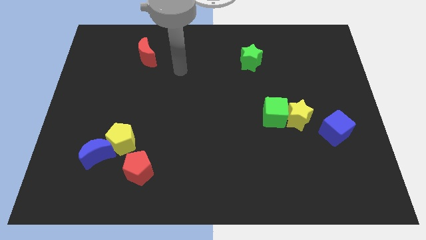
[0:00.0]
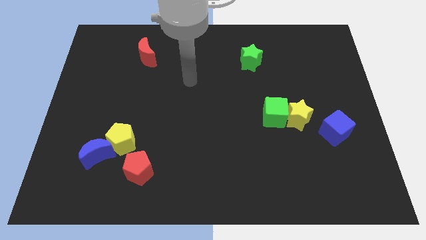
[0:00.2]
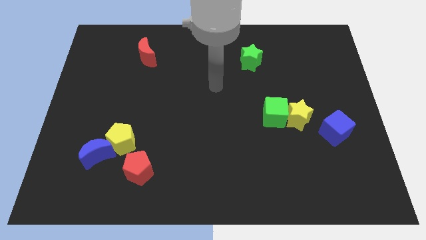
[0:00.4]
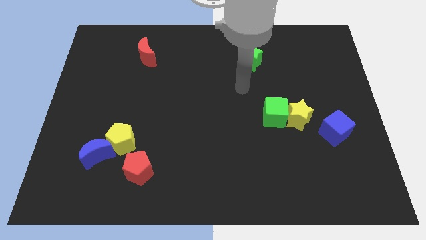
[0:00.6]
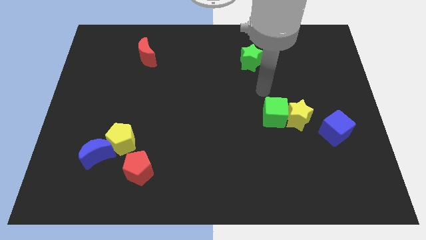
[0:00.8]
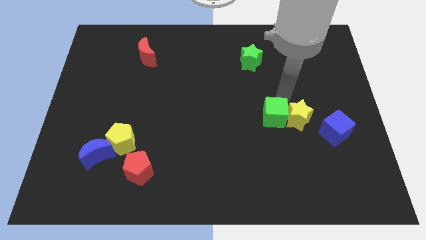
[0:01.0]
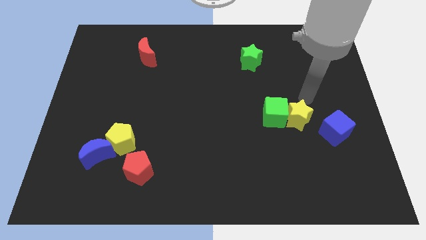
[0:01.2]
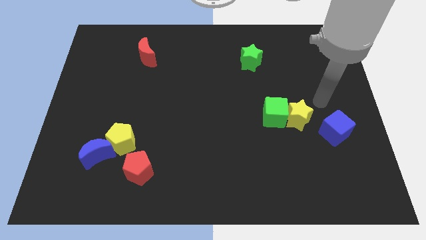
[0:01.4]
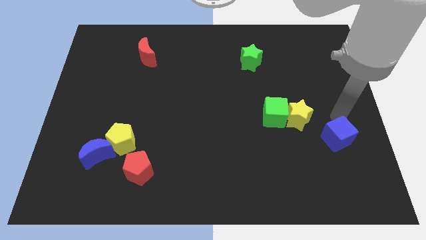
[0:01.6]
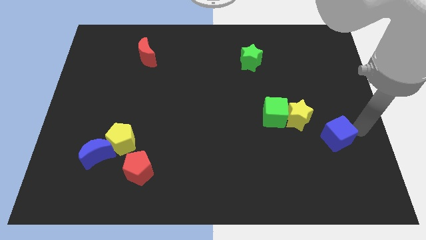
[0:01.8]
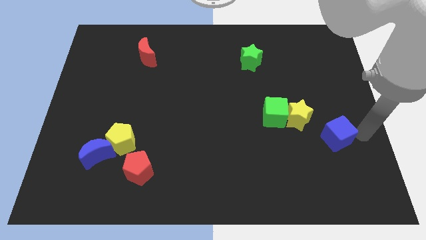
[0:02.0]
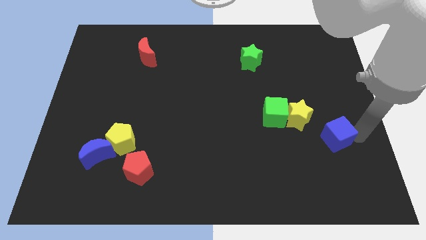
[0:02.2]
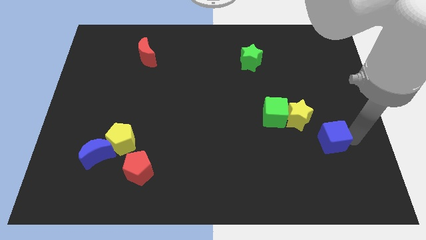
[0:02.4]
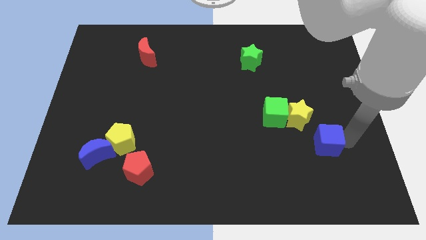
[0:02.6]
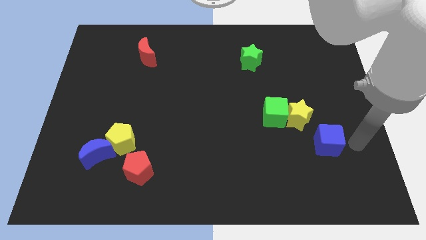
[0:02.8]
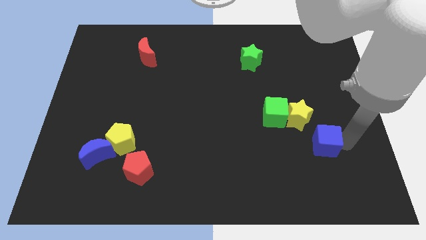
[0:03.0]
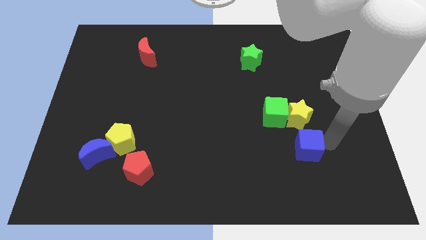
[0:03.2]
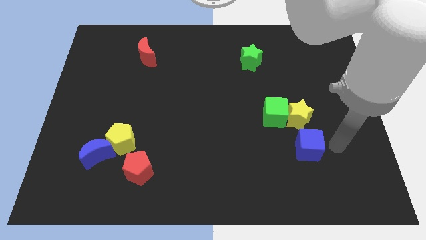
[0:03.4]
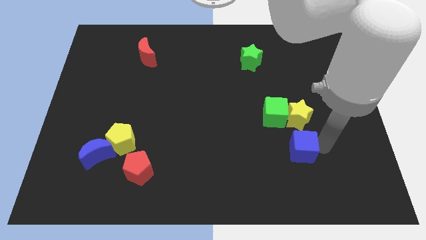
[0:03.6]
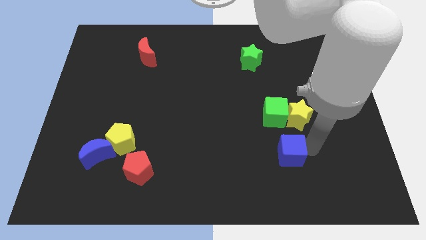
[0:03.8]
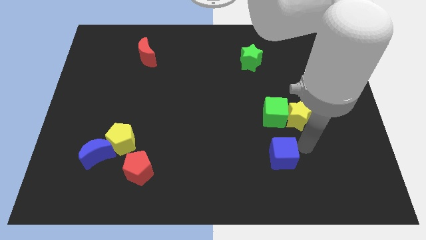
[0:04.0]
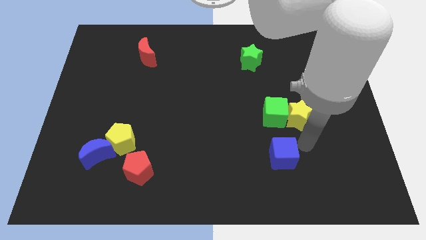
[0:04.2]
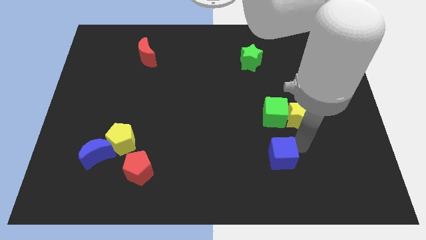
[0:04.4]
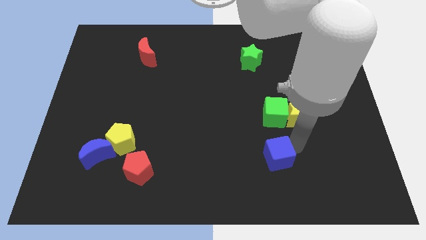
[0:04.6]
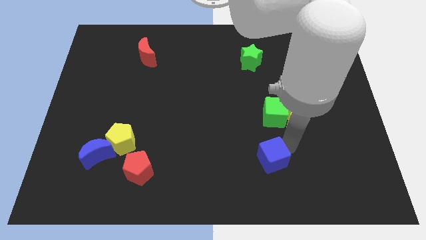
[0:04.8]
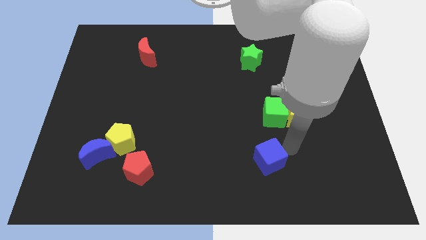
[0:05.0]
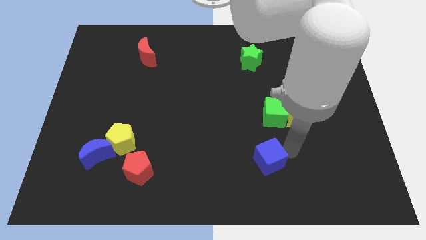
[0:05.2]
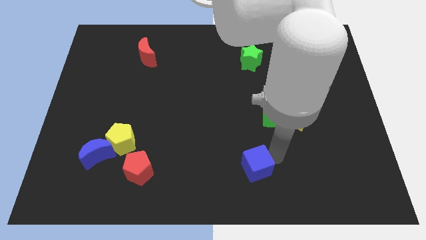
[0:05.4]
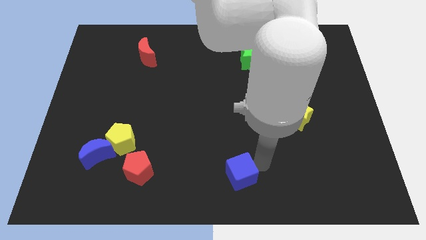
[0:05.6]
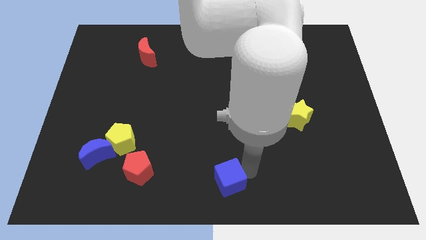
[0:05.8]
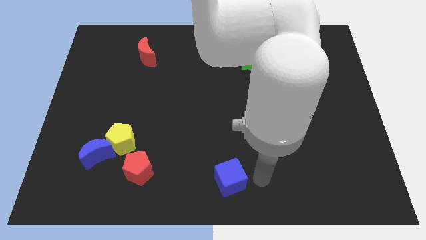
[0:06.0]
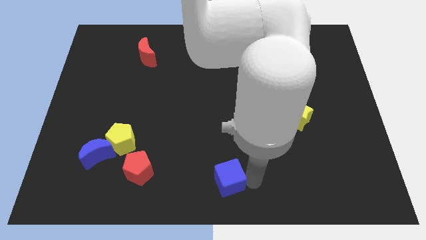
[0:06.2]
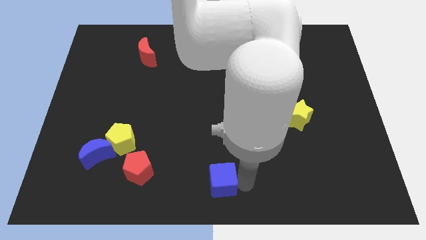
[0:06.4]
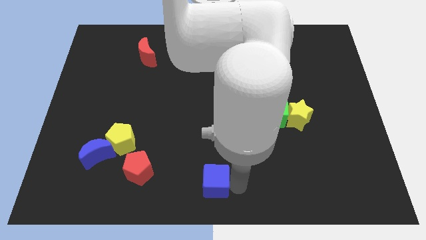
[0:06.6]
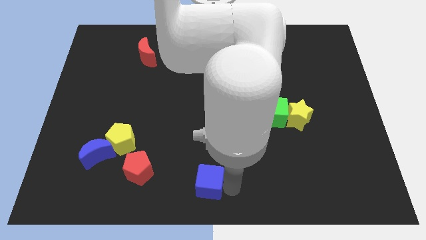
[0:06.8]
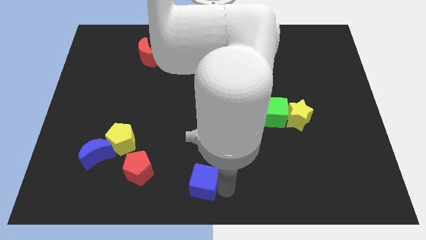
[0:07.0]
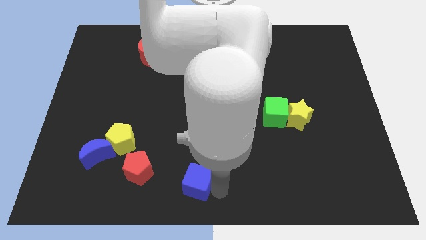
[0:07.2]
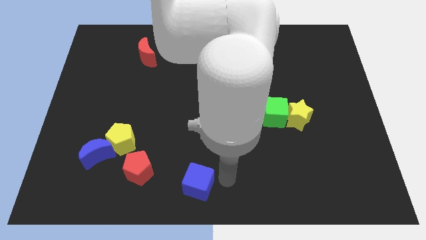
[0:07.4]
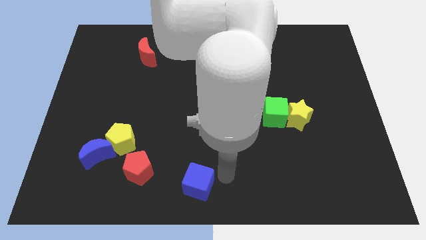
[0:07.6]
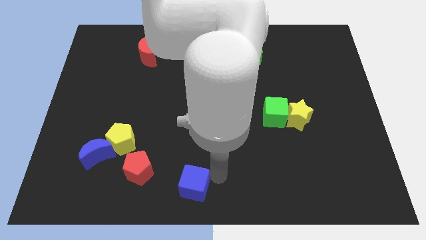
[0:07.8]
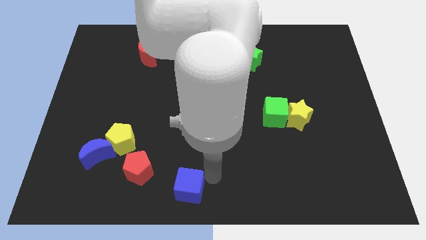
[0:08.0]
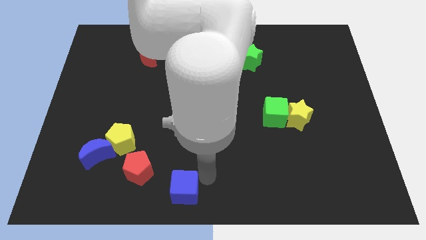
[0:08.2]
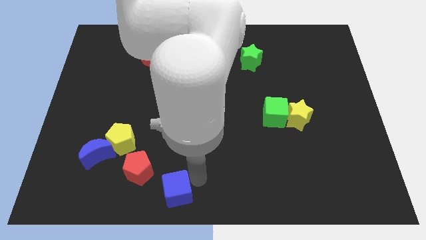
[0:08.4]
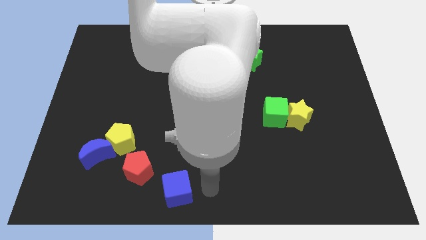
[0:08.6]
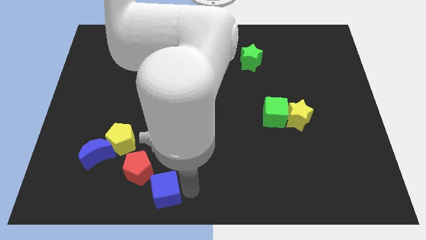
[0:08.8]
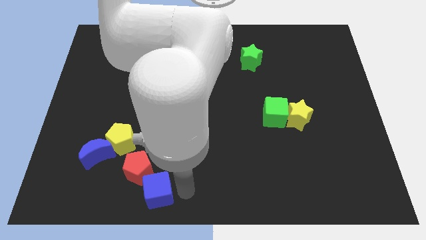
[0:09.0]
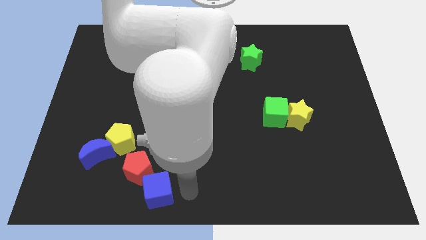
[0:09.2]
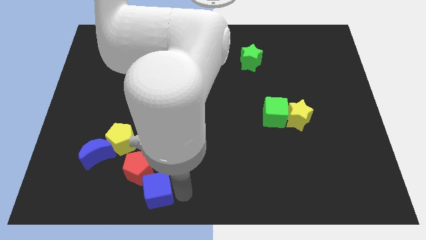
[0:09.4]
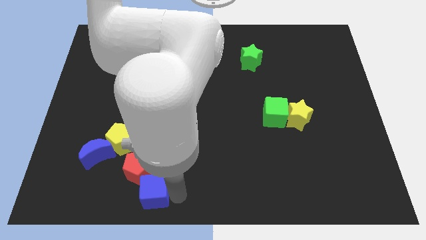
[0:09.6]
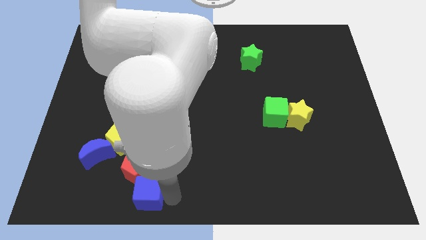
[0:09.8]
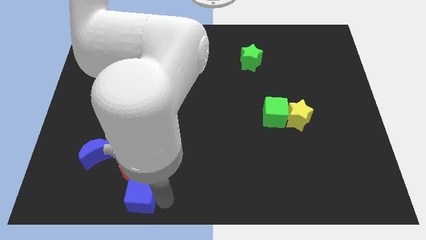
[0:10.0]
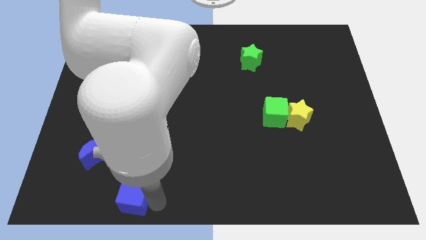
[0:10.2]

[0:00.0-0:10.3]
move the blue cube below the yellow pentagon
